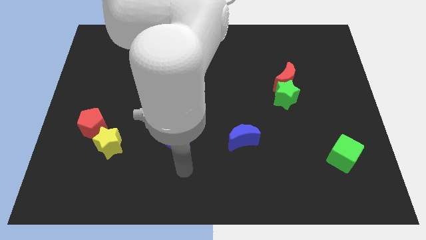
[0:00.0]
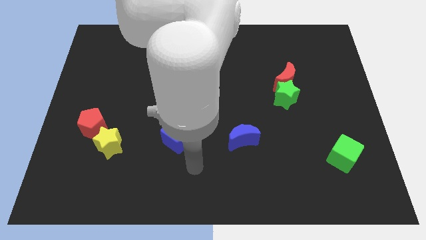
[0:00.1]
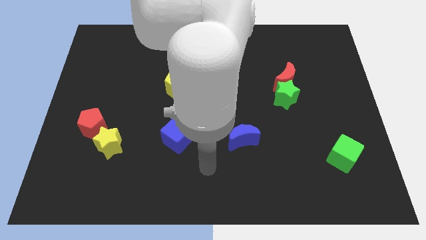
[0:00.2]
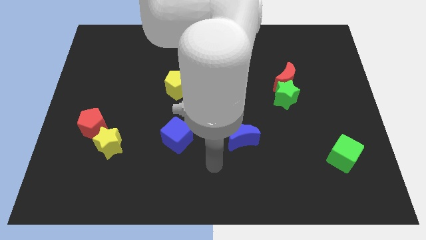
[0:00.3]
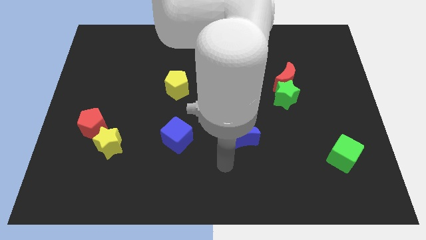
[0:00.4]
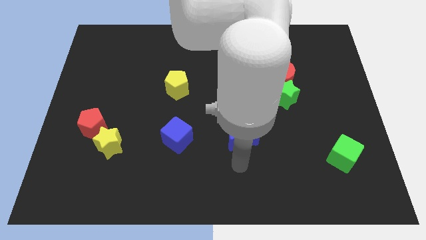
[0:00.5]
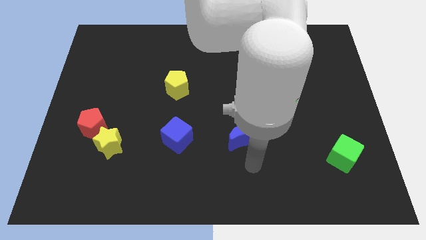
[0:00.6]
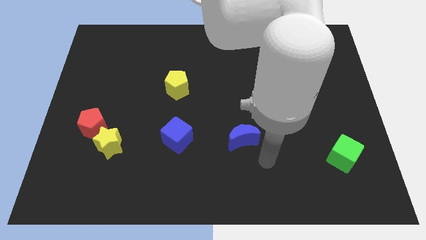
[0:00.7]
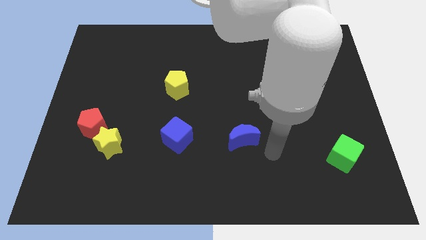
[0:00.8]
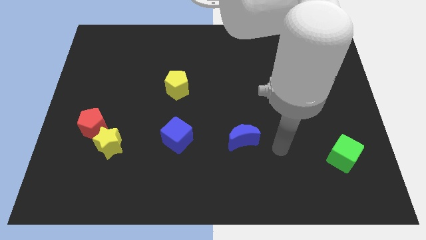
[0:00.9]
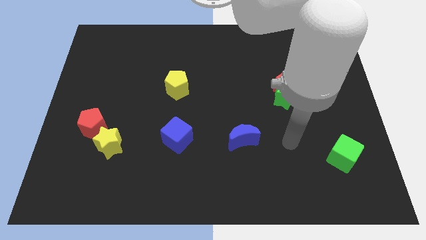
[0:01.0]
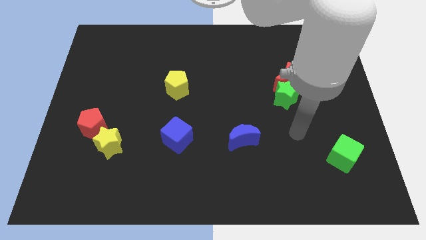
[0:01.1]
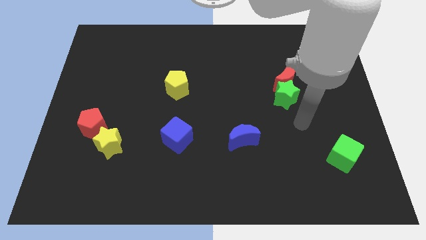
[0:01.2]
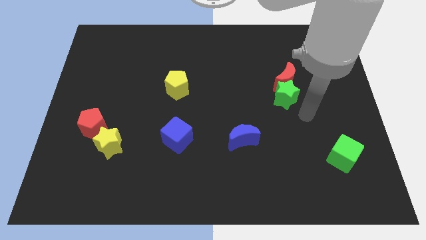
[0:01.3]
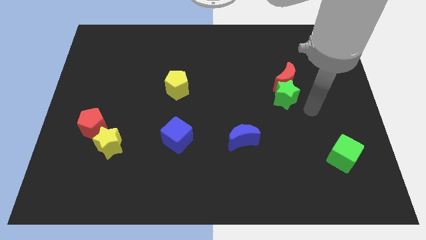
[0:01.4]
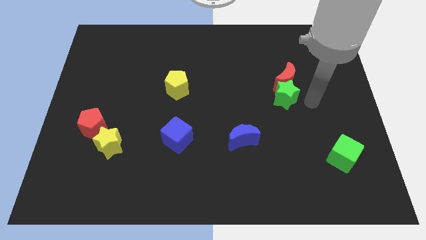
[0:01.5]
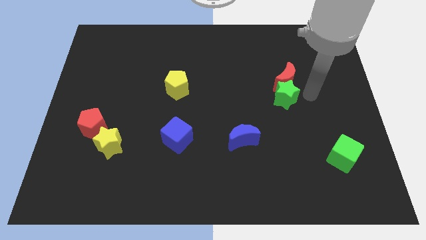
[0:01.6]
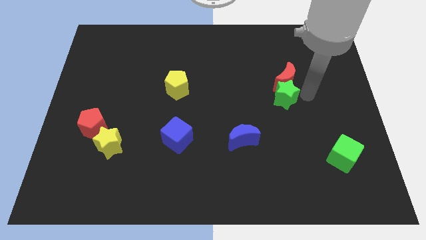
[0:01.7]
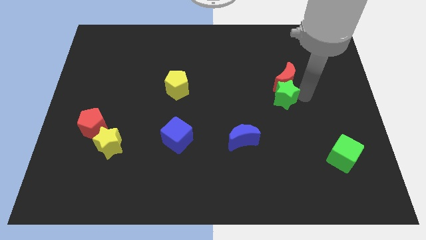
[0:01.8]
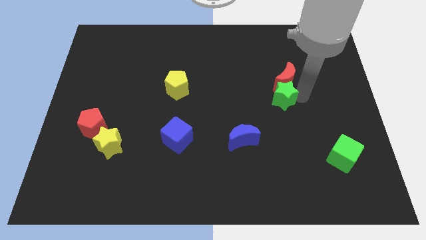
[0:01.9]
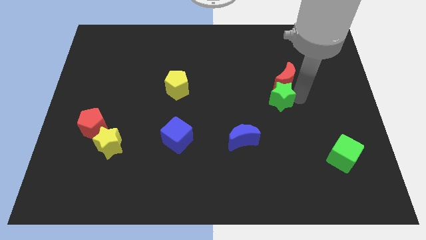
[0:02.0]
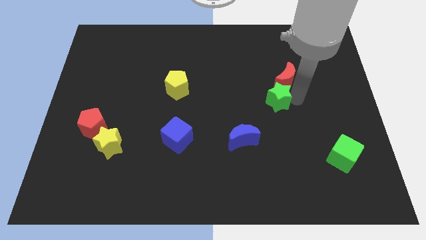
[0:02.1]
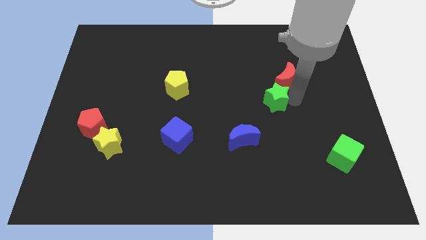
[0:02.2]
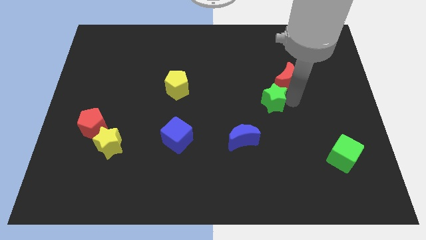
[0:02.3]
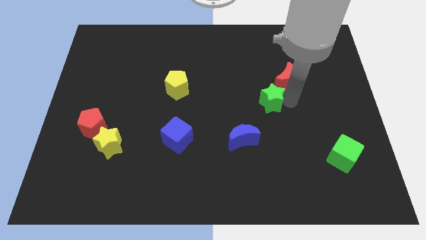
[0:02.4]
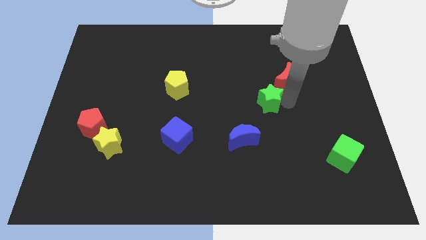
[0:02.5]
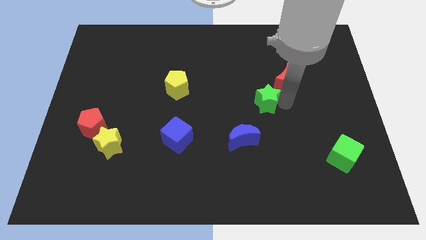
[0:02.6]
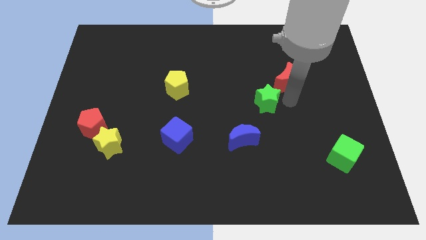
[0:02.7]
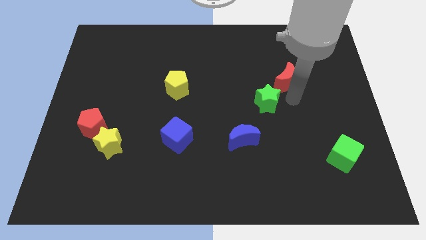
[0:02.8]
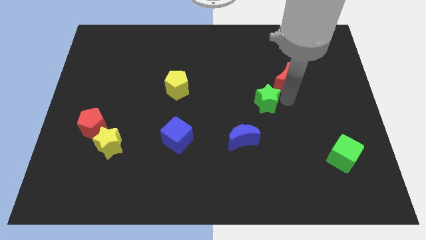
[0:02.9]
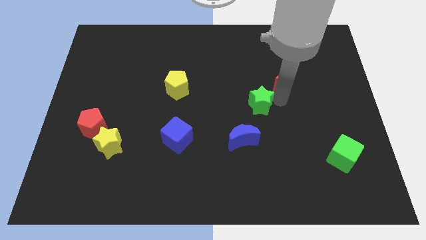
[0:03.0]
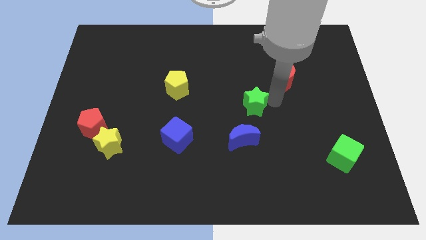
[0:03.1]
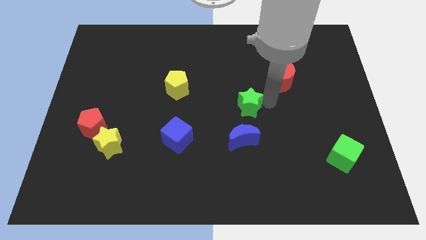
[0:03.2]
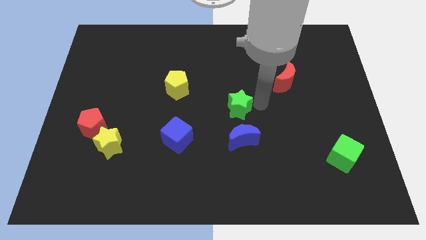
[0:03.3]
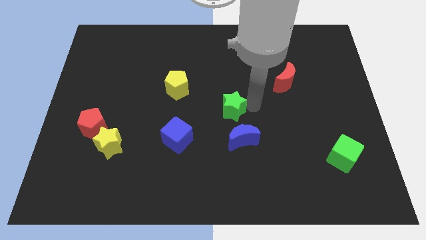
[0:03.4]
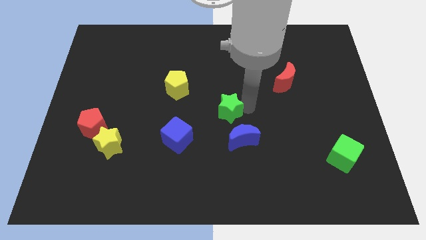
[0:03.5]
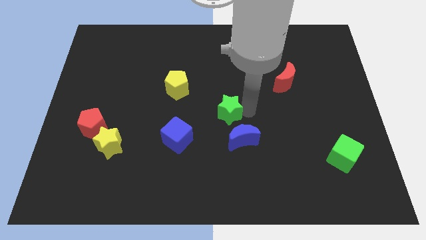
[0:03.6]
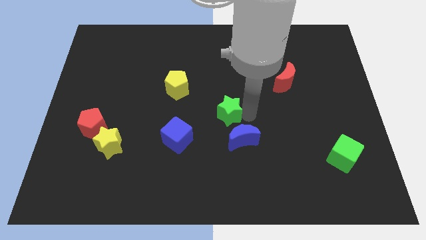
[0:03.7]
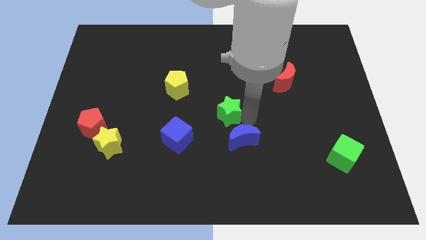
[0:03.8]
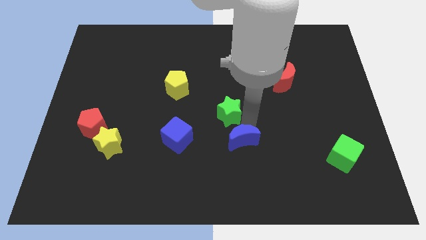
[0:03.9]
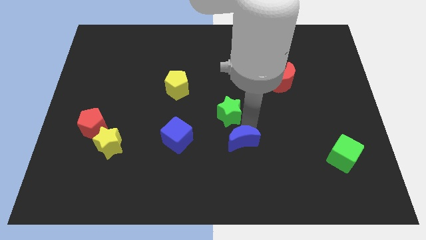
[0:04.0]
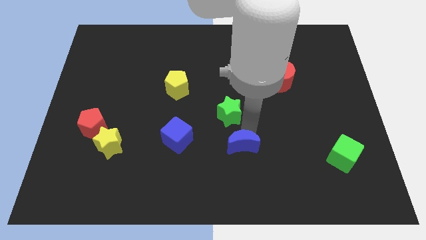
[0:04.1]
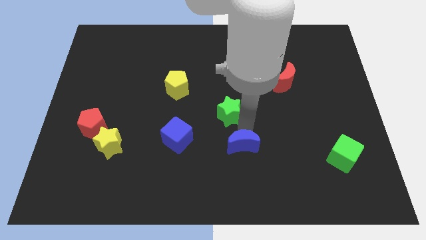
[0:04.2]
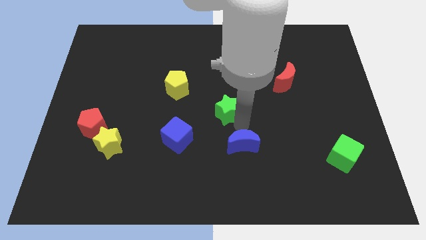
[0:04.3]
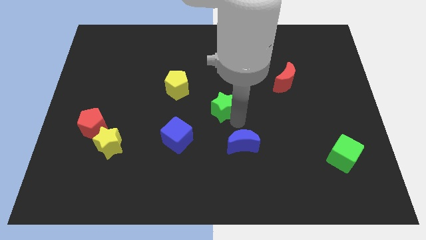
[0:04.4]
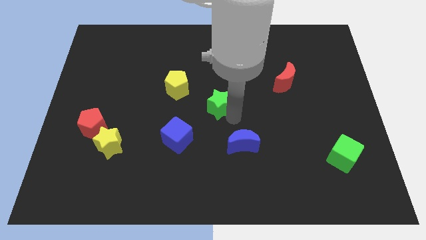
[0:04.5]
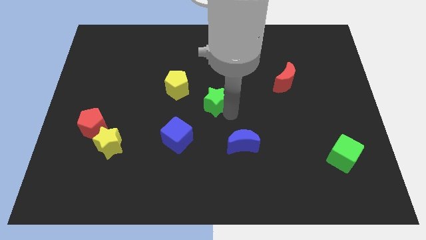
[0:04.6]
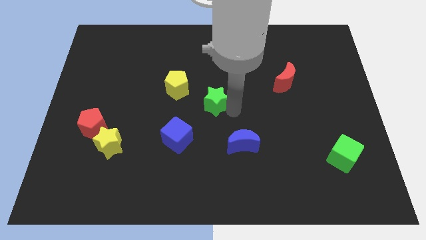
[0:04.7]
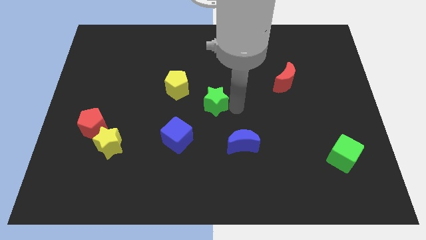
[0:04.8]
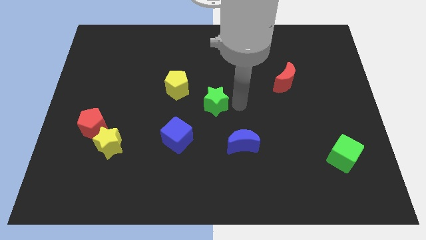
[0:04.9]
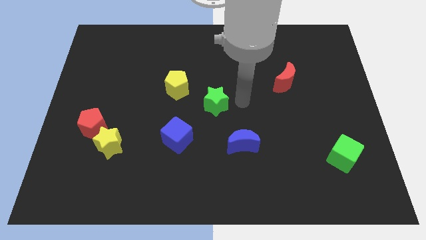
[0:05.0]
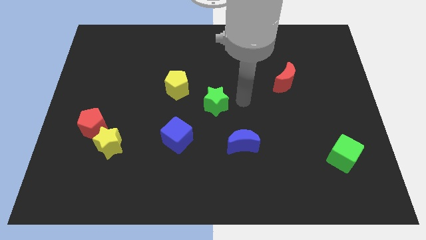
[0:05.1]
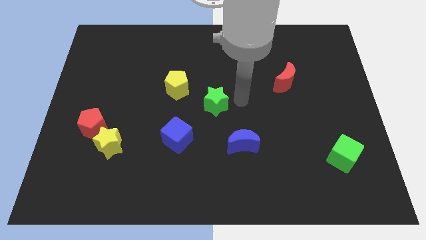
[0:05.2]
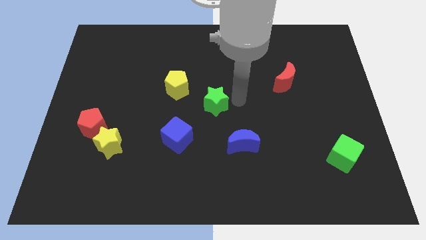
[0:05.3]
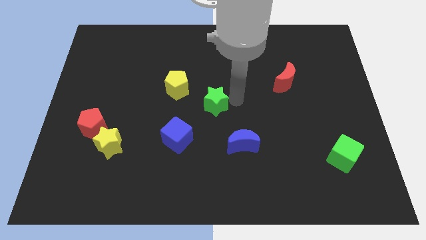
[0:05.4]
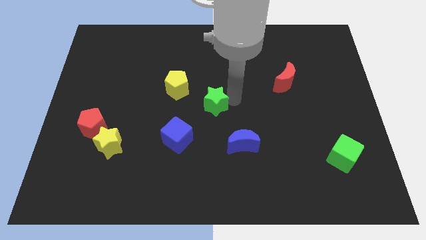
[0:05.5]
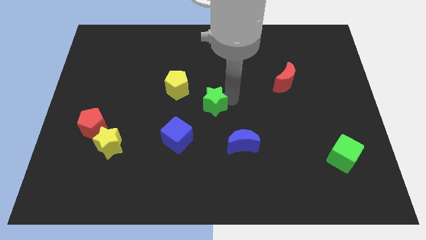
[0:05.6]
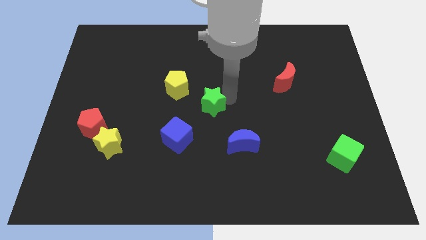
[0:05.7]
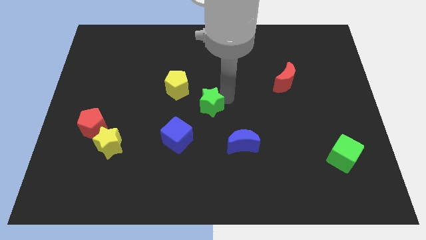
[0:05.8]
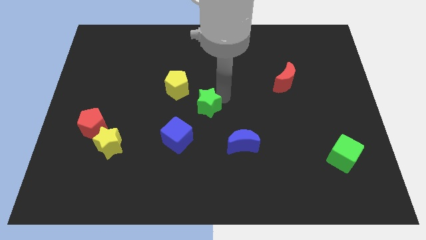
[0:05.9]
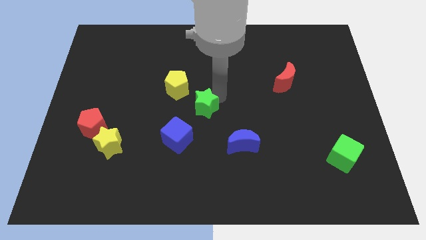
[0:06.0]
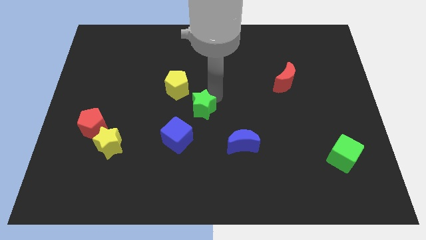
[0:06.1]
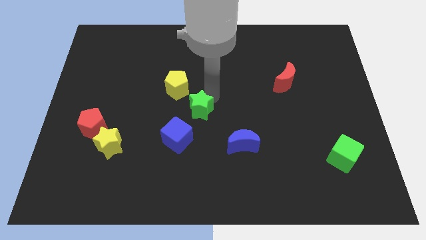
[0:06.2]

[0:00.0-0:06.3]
slide the green star to the left

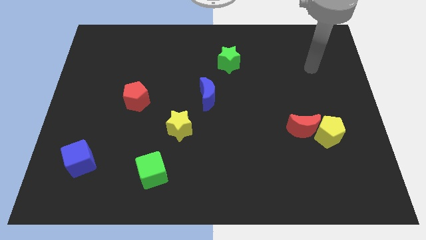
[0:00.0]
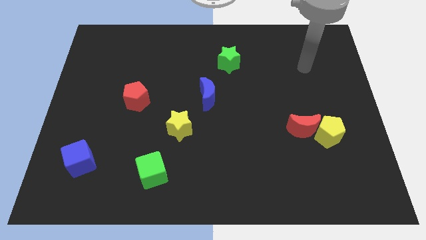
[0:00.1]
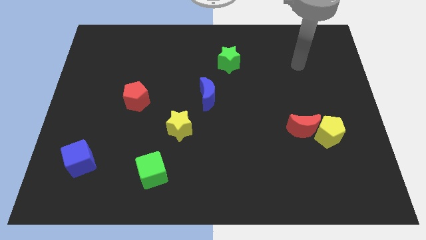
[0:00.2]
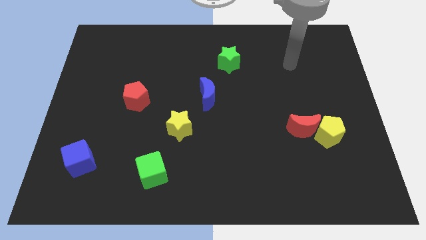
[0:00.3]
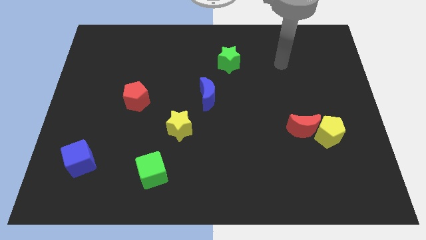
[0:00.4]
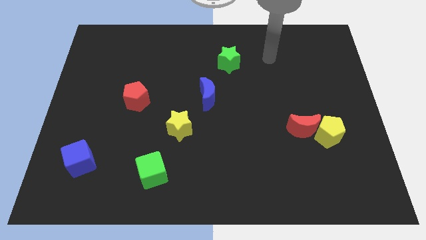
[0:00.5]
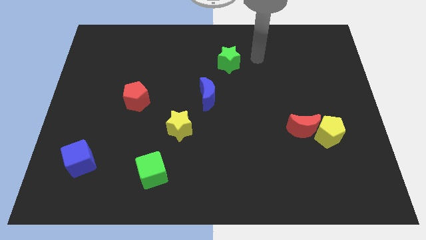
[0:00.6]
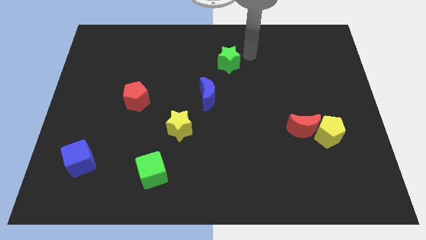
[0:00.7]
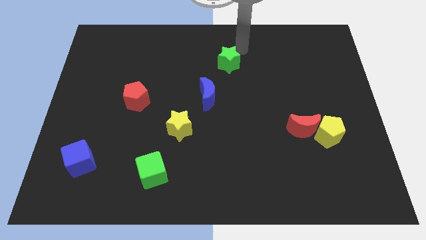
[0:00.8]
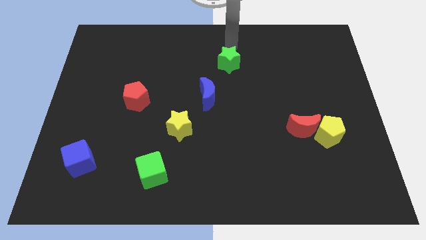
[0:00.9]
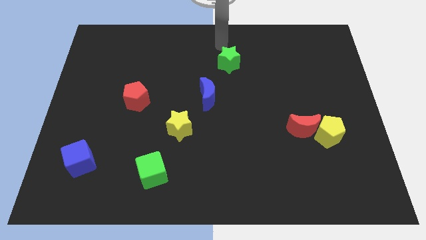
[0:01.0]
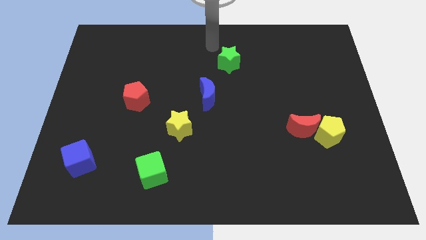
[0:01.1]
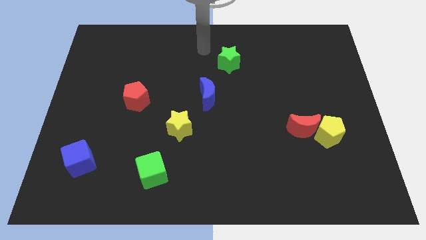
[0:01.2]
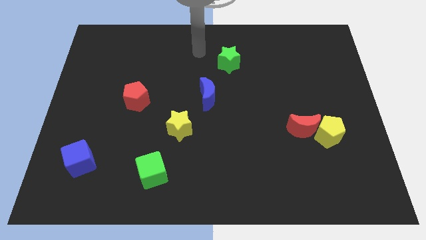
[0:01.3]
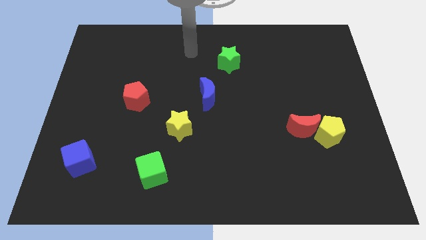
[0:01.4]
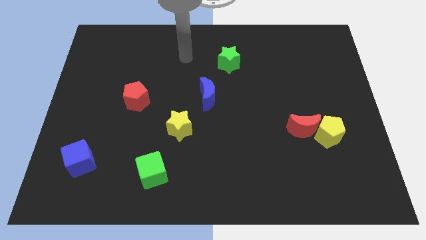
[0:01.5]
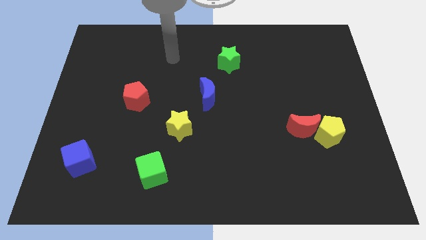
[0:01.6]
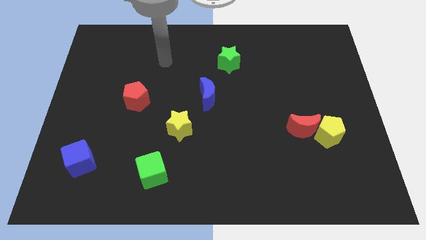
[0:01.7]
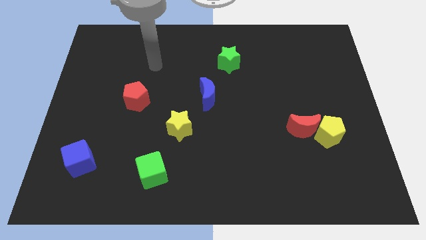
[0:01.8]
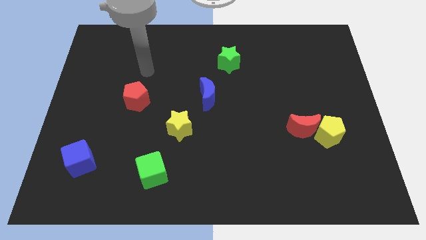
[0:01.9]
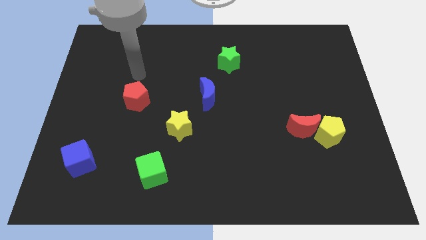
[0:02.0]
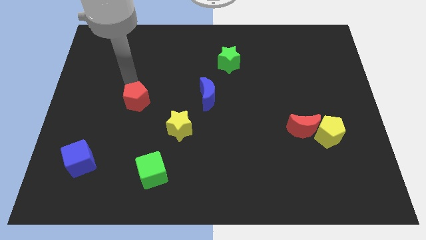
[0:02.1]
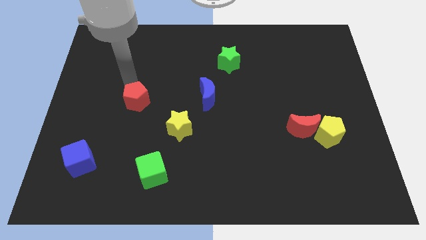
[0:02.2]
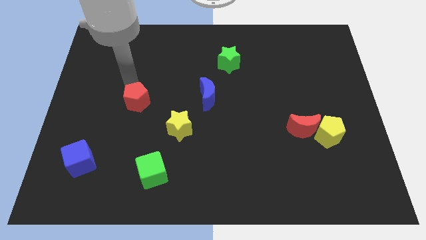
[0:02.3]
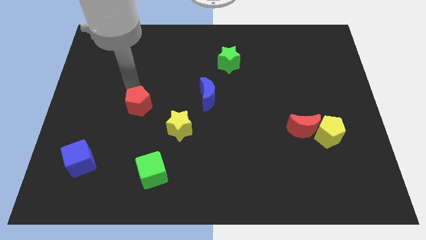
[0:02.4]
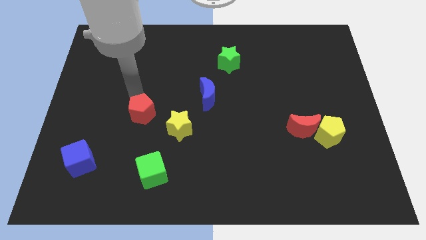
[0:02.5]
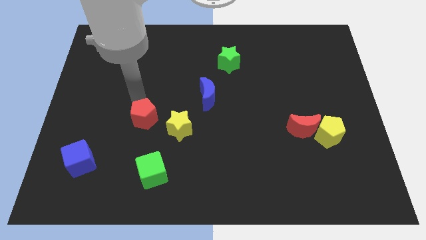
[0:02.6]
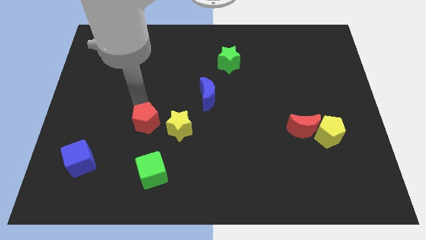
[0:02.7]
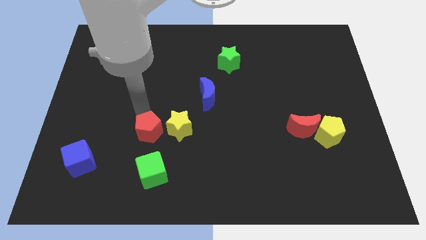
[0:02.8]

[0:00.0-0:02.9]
slide the red pentagon downwards and to the right somewhat
